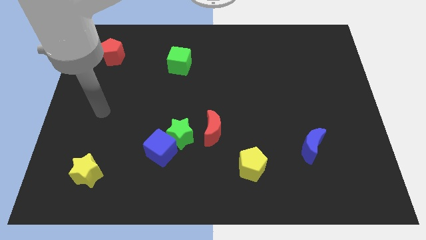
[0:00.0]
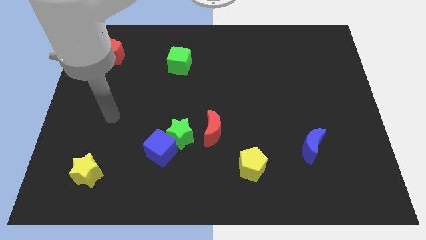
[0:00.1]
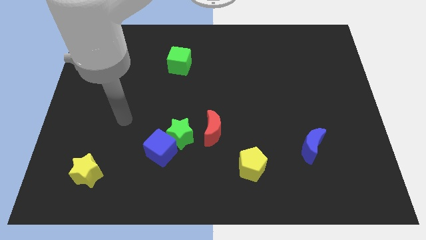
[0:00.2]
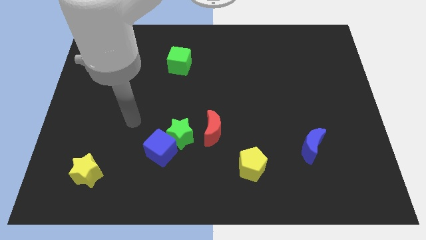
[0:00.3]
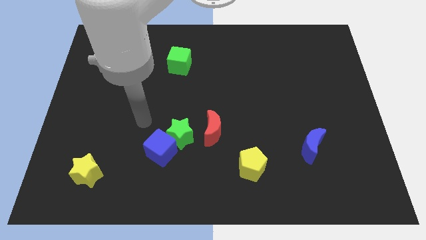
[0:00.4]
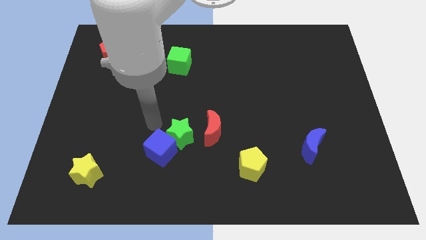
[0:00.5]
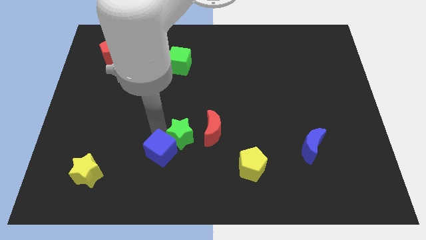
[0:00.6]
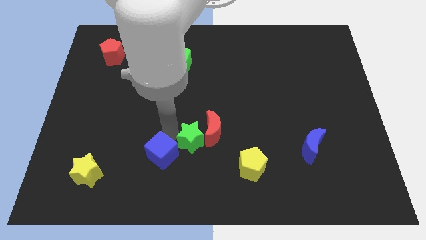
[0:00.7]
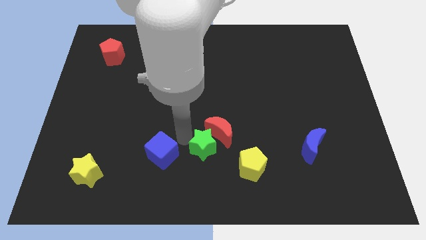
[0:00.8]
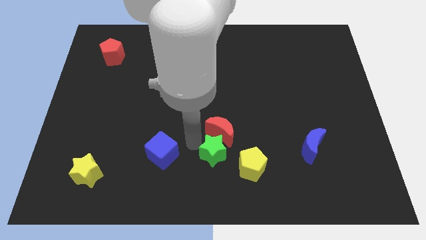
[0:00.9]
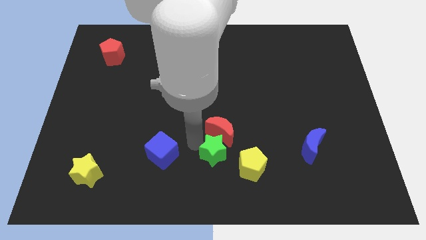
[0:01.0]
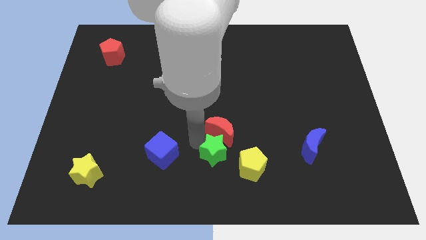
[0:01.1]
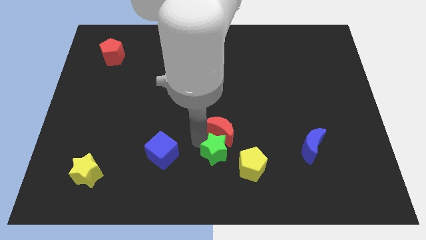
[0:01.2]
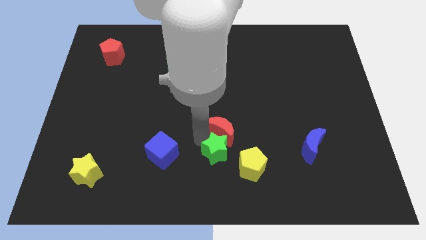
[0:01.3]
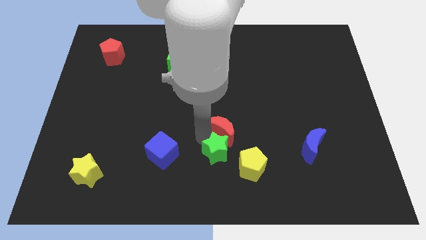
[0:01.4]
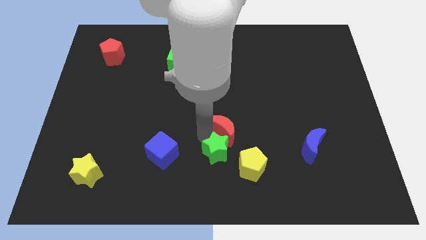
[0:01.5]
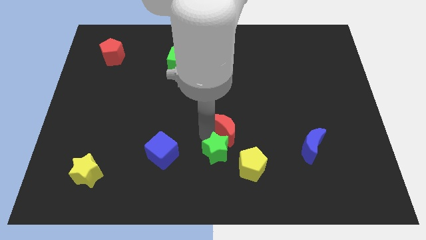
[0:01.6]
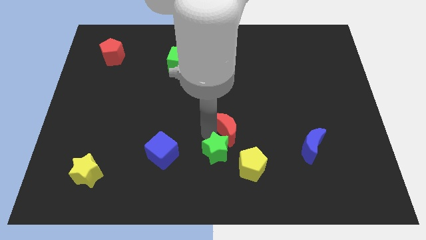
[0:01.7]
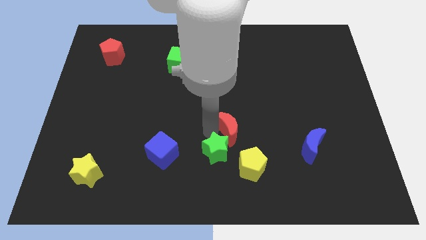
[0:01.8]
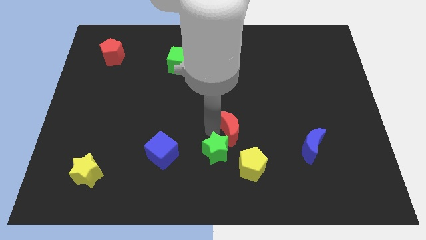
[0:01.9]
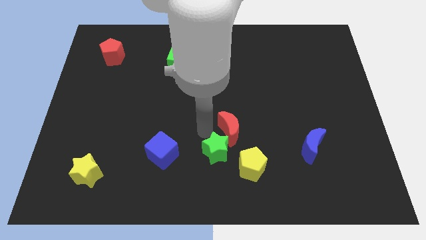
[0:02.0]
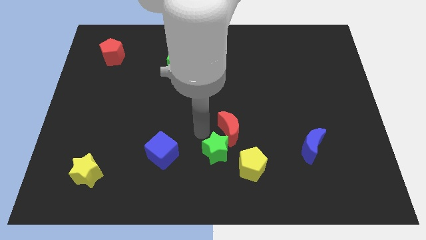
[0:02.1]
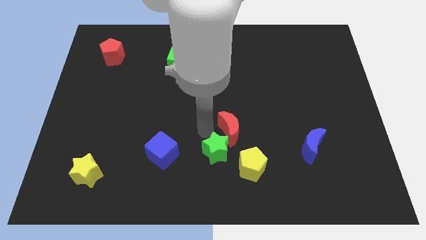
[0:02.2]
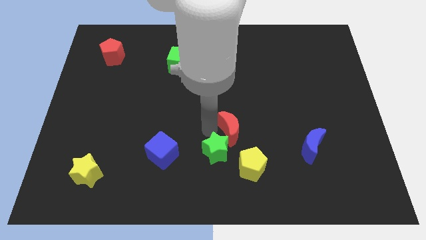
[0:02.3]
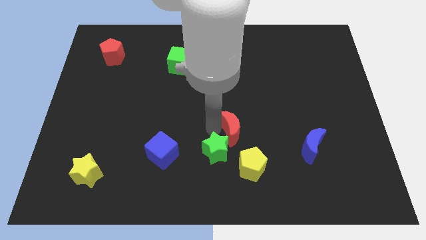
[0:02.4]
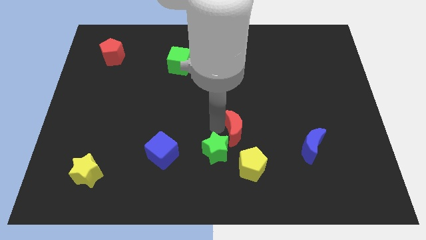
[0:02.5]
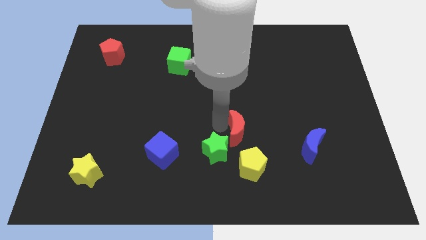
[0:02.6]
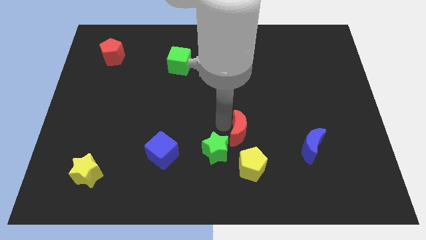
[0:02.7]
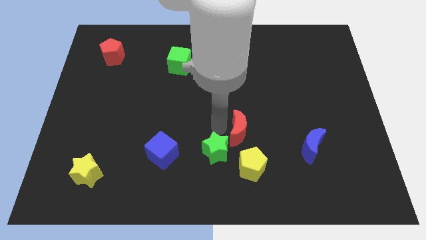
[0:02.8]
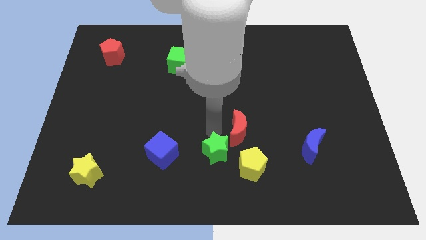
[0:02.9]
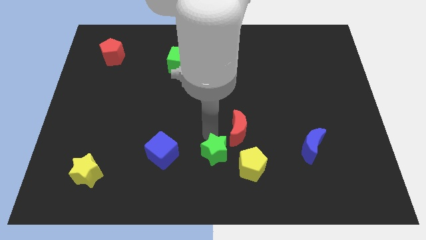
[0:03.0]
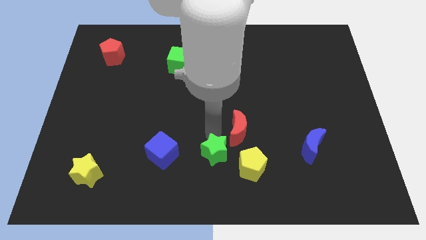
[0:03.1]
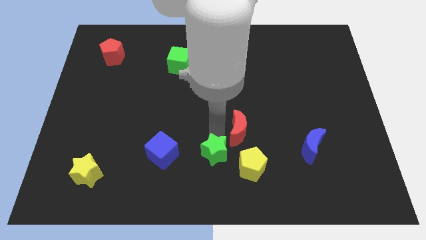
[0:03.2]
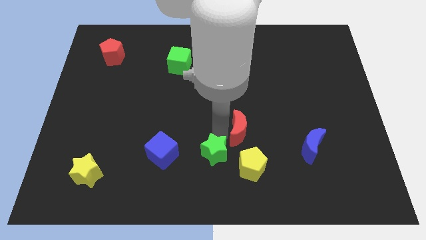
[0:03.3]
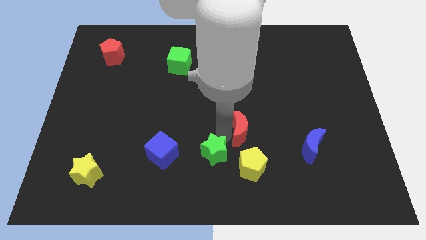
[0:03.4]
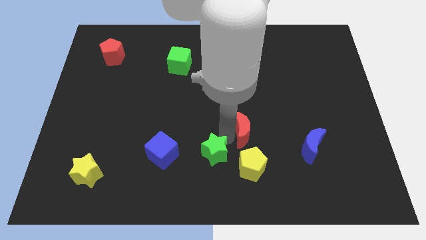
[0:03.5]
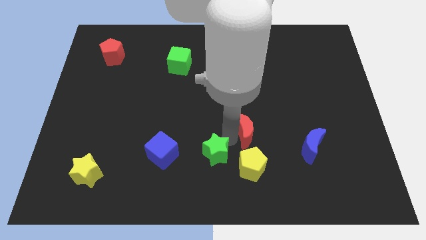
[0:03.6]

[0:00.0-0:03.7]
push the red moon to the right somewhat

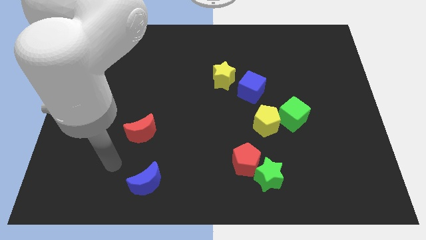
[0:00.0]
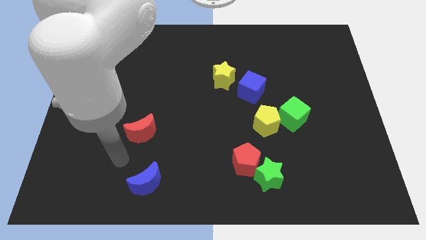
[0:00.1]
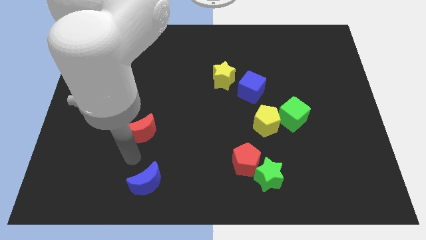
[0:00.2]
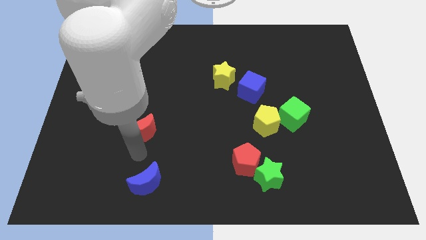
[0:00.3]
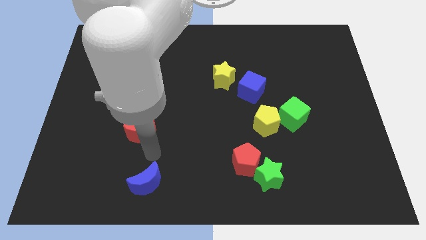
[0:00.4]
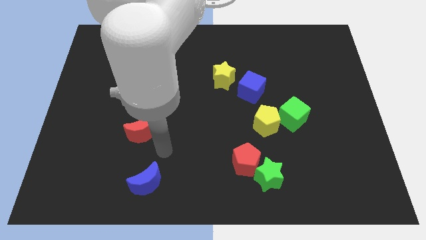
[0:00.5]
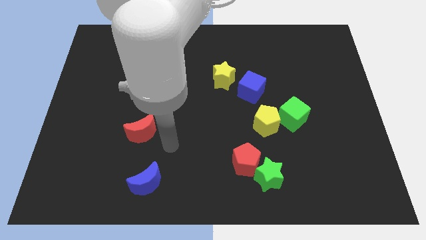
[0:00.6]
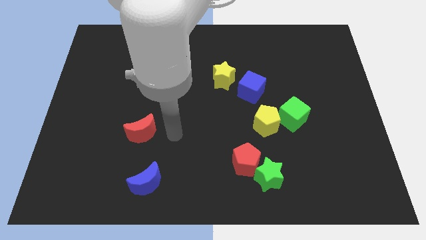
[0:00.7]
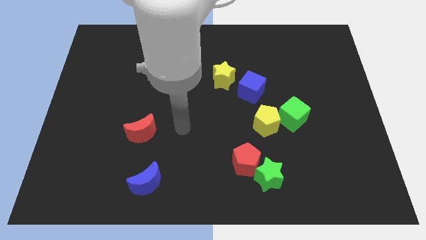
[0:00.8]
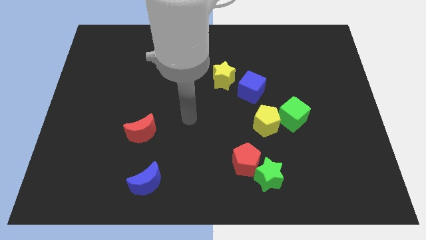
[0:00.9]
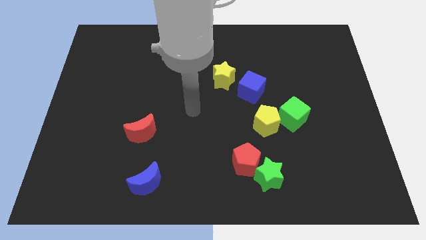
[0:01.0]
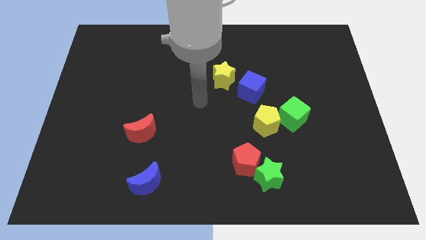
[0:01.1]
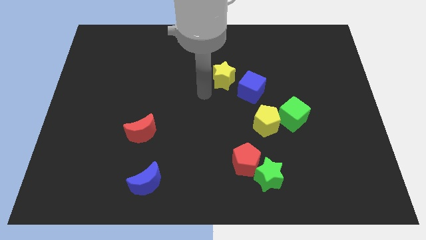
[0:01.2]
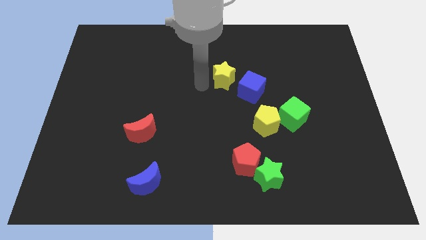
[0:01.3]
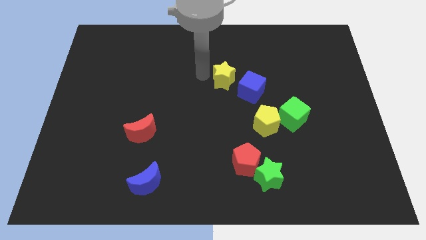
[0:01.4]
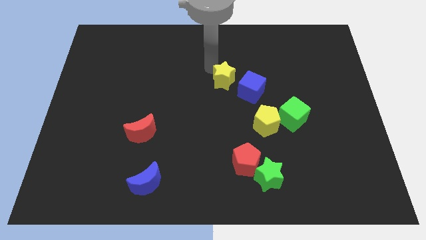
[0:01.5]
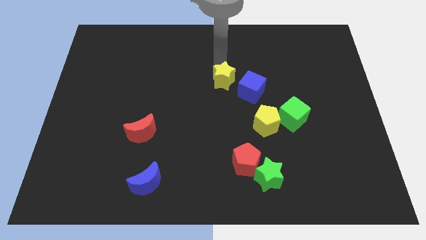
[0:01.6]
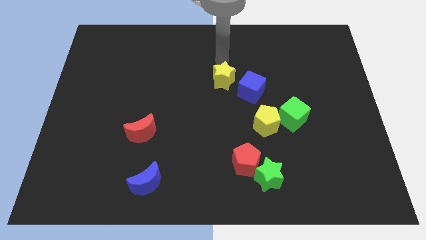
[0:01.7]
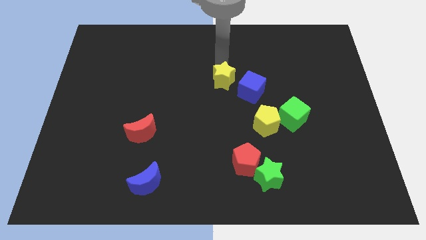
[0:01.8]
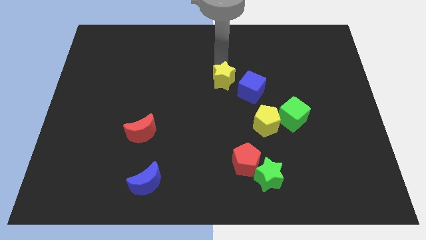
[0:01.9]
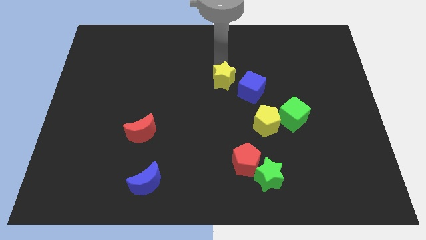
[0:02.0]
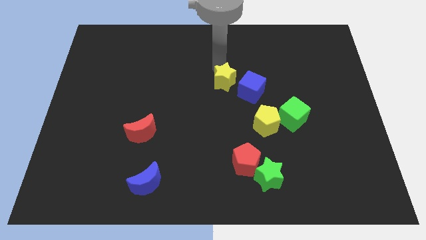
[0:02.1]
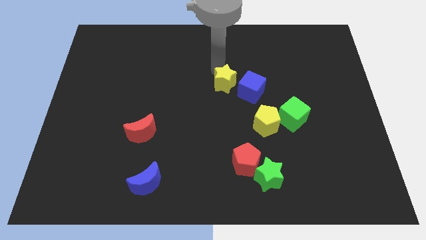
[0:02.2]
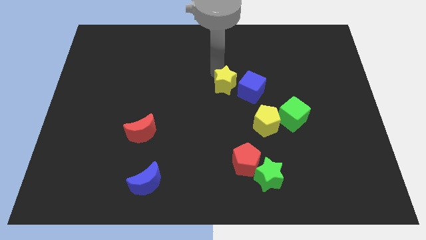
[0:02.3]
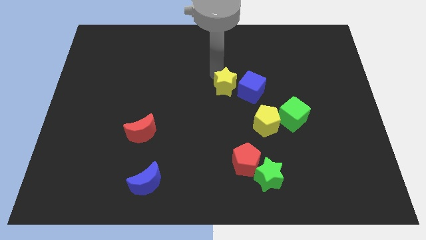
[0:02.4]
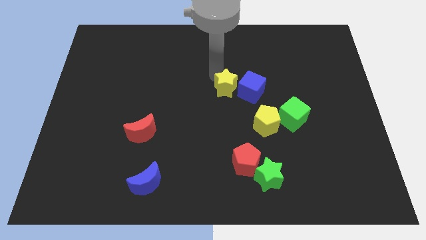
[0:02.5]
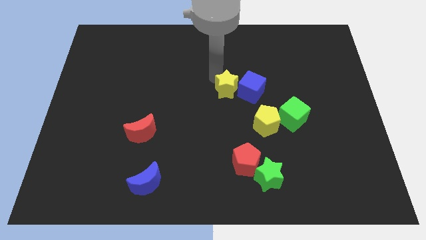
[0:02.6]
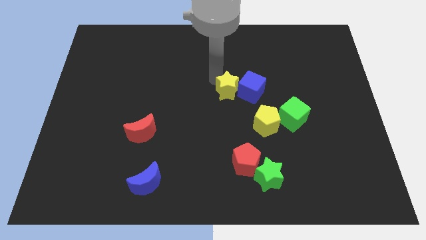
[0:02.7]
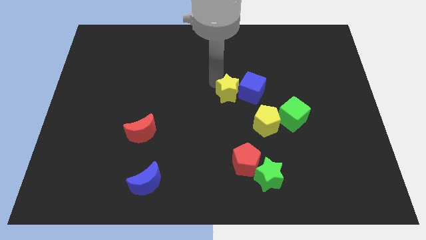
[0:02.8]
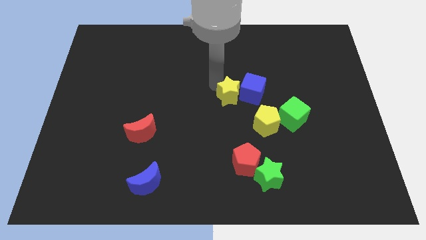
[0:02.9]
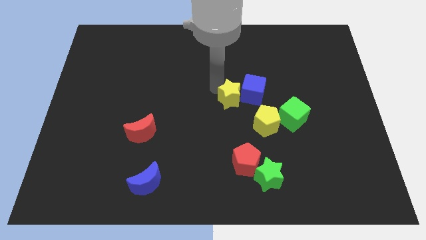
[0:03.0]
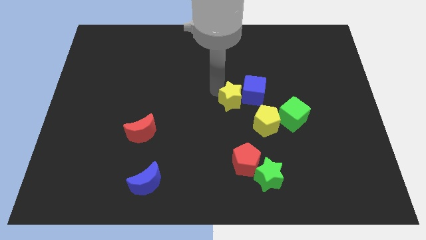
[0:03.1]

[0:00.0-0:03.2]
slide the yellow star a little downwards

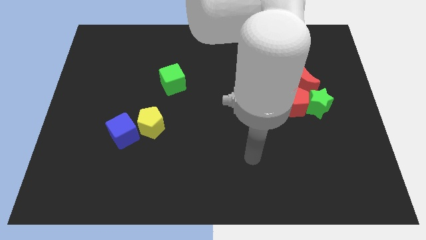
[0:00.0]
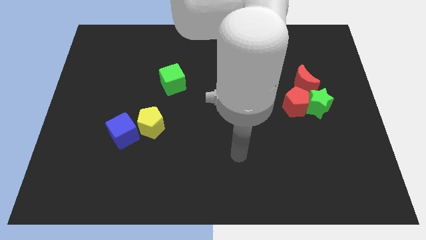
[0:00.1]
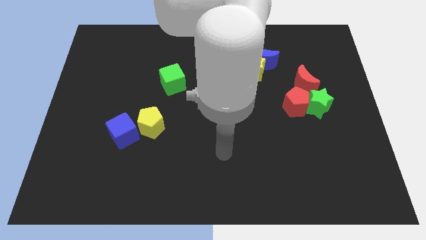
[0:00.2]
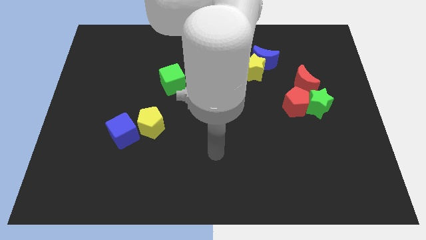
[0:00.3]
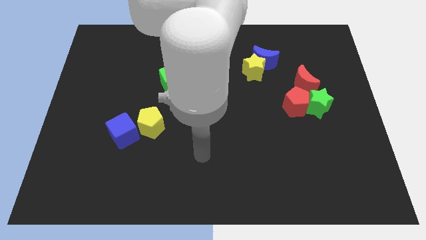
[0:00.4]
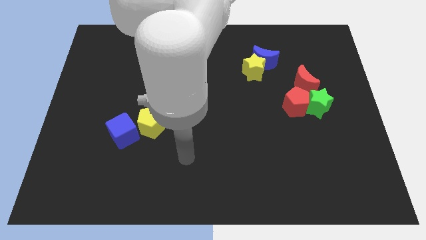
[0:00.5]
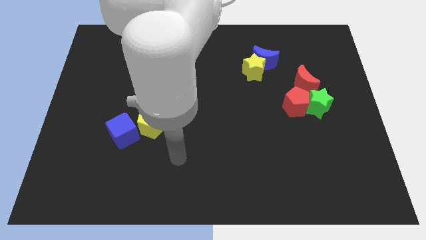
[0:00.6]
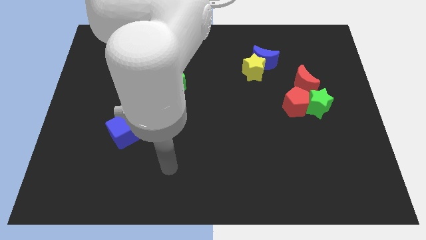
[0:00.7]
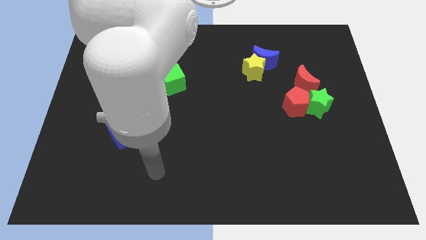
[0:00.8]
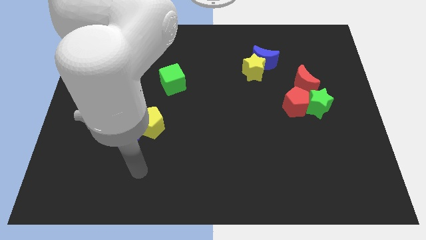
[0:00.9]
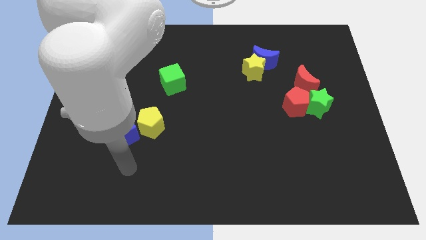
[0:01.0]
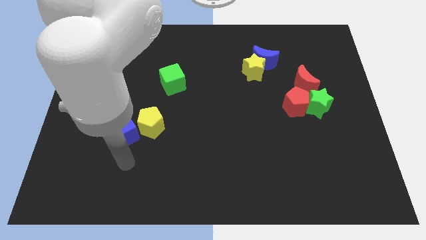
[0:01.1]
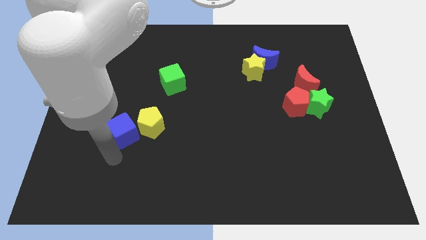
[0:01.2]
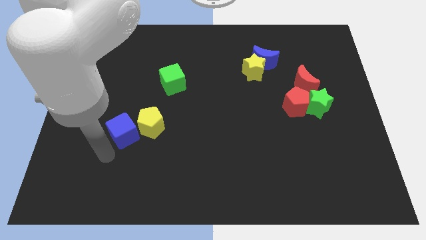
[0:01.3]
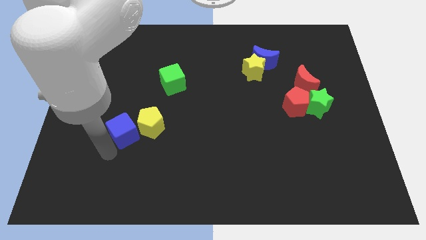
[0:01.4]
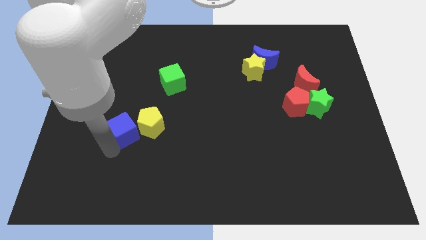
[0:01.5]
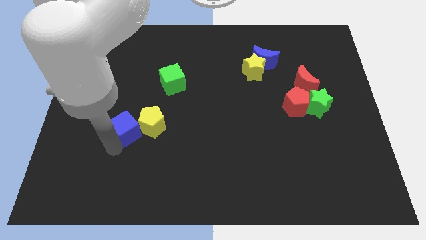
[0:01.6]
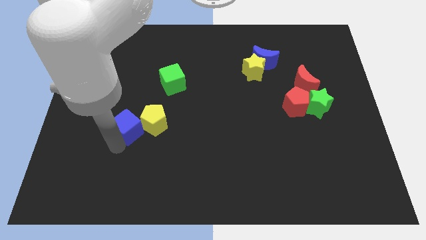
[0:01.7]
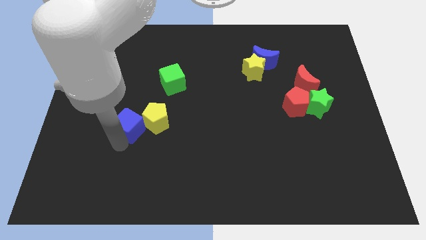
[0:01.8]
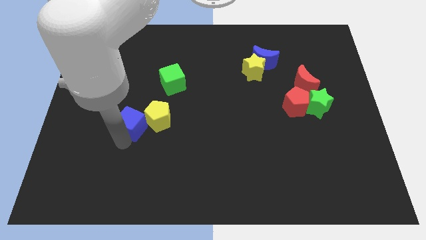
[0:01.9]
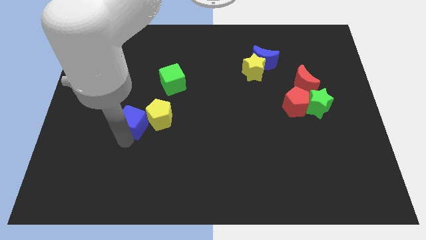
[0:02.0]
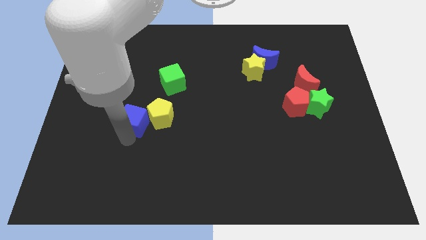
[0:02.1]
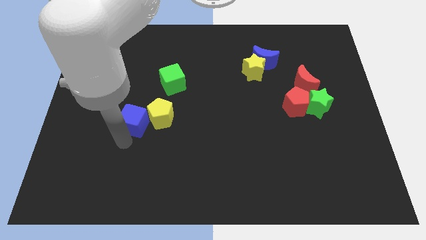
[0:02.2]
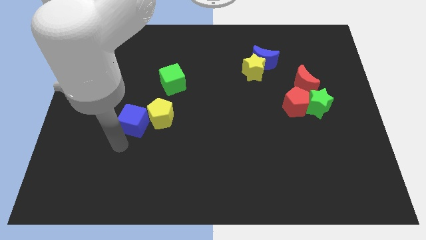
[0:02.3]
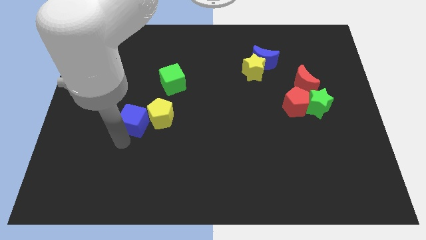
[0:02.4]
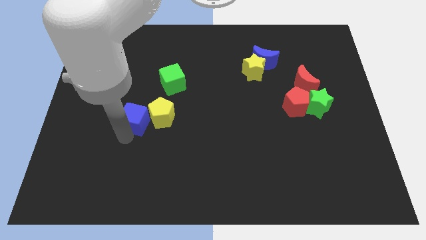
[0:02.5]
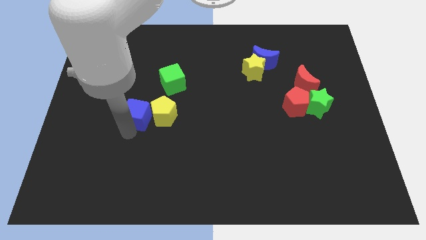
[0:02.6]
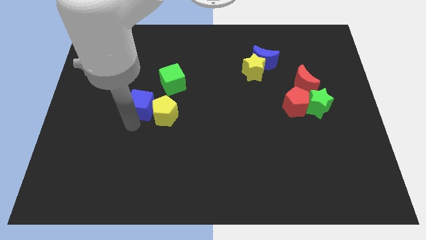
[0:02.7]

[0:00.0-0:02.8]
slightly slide the blue cube up and right
